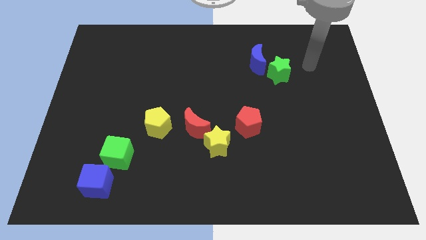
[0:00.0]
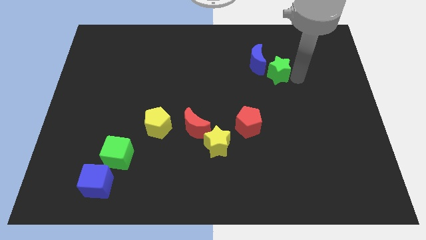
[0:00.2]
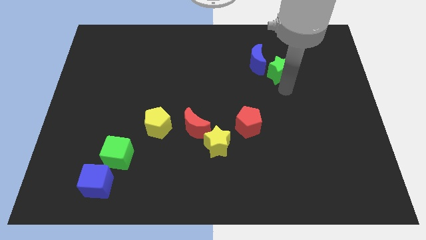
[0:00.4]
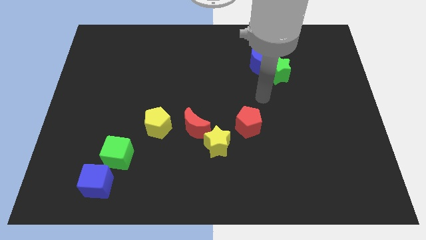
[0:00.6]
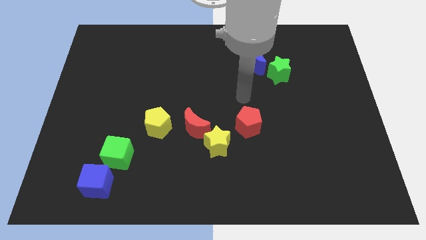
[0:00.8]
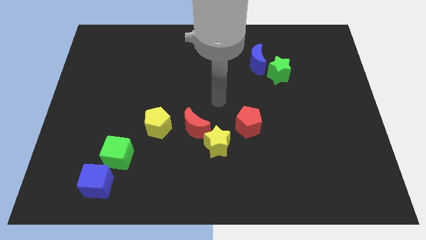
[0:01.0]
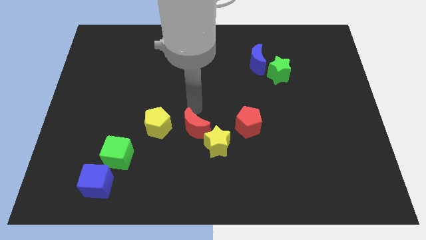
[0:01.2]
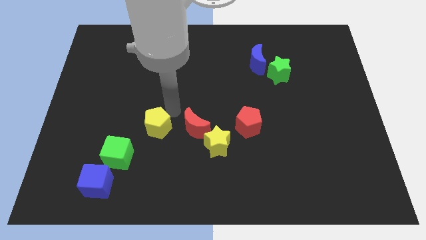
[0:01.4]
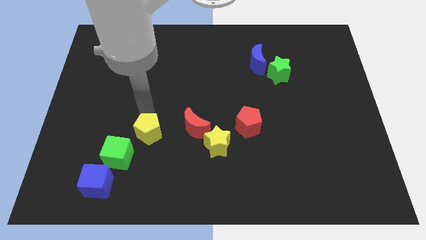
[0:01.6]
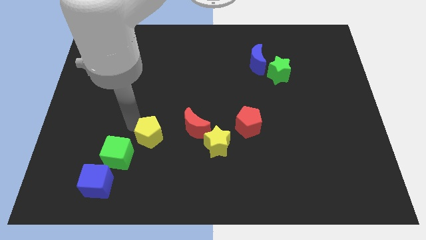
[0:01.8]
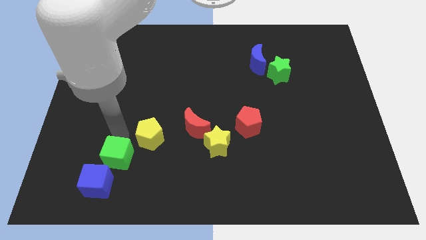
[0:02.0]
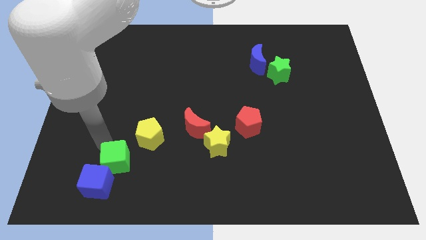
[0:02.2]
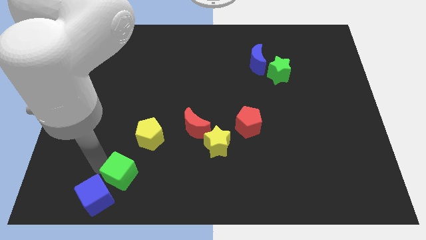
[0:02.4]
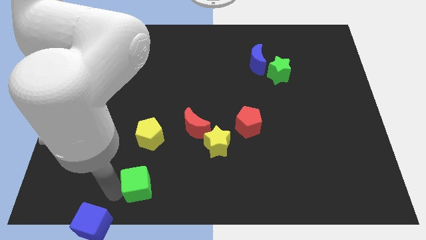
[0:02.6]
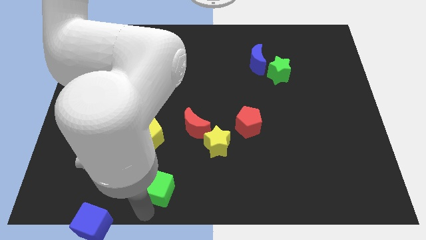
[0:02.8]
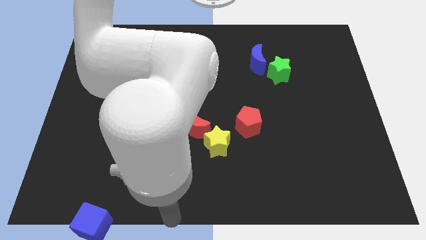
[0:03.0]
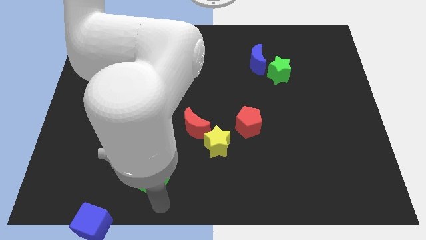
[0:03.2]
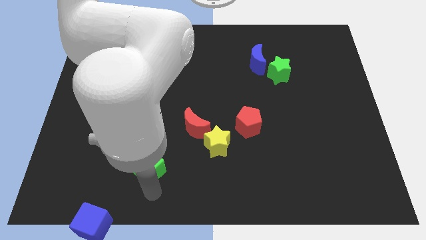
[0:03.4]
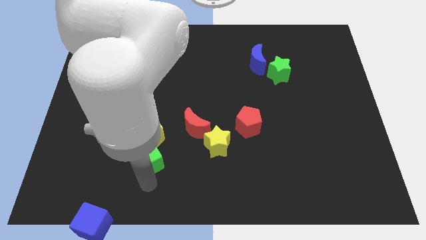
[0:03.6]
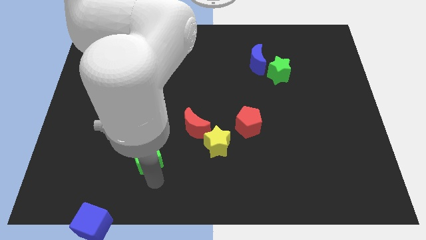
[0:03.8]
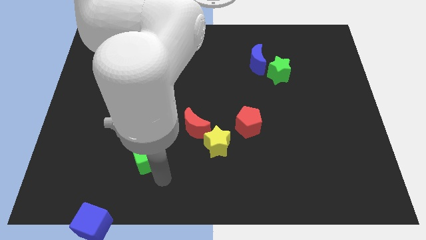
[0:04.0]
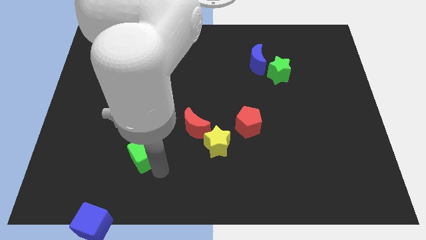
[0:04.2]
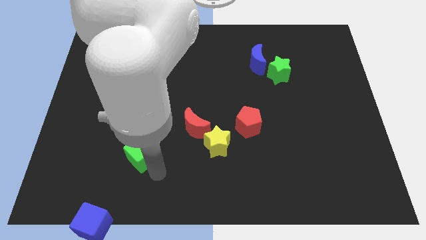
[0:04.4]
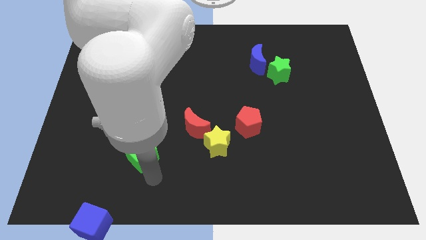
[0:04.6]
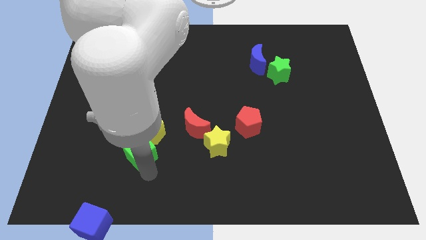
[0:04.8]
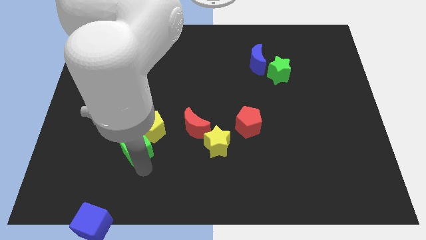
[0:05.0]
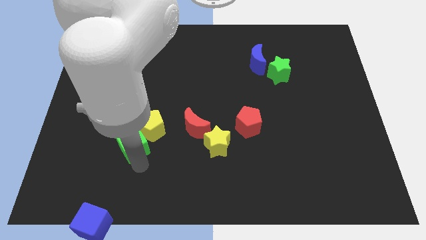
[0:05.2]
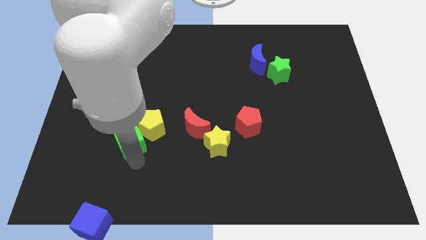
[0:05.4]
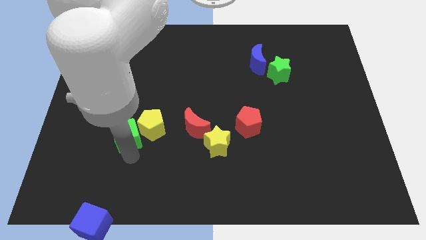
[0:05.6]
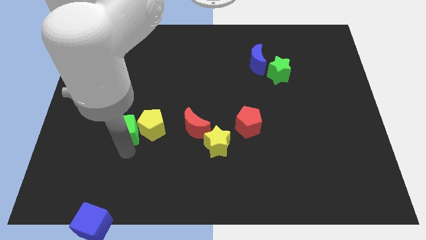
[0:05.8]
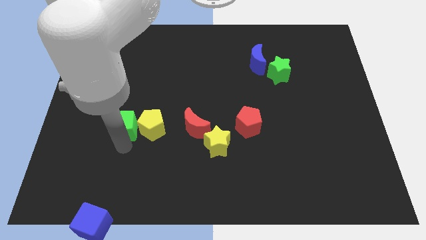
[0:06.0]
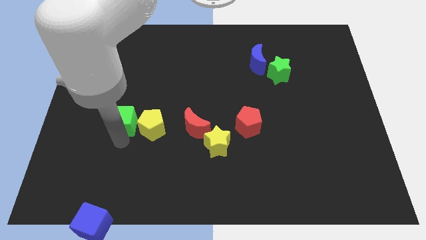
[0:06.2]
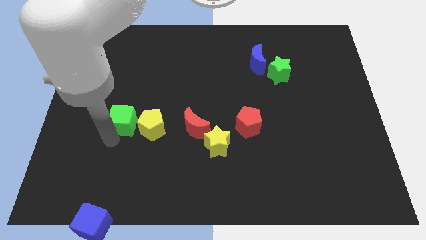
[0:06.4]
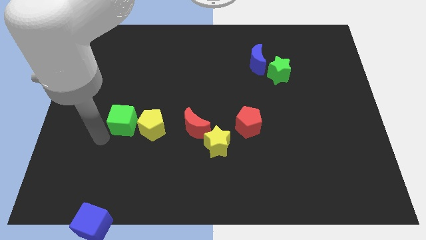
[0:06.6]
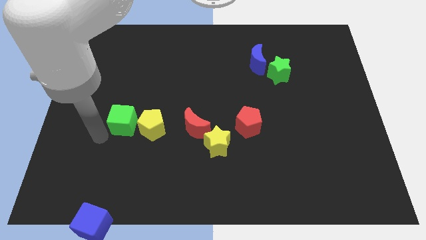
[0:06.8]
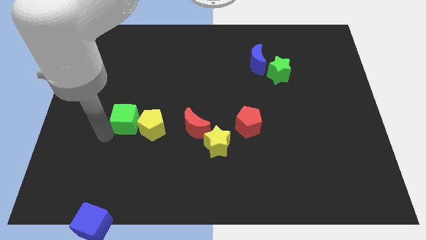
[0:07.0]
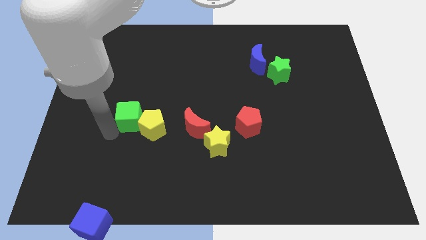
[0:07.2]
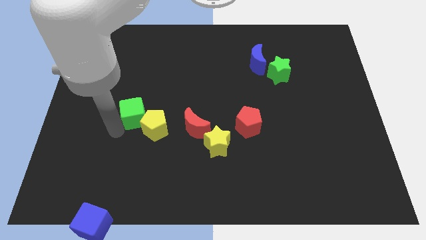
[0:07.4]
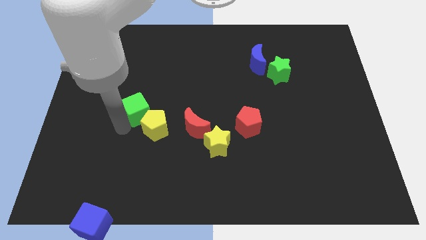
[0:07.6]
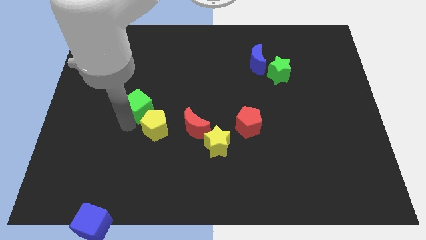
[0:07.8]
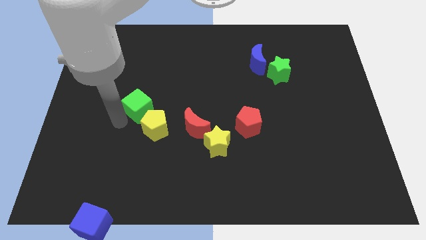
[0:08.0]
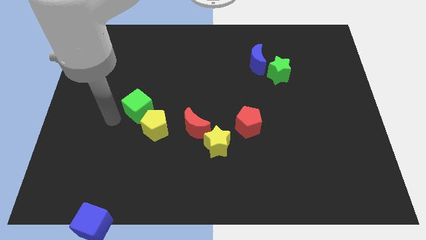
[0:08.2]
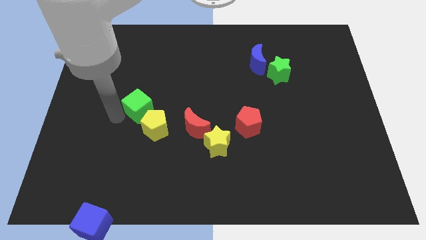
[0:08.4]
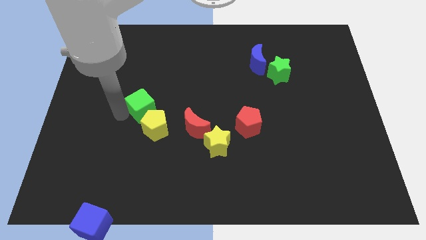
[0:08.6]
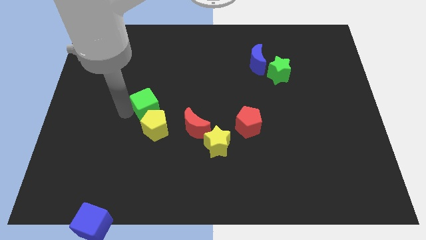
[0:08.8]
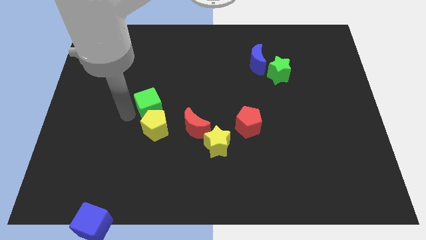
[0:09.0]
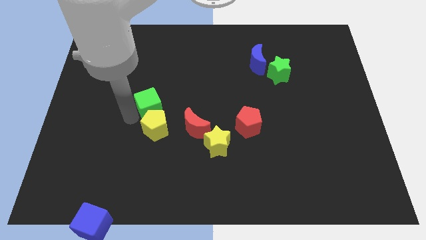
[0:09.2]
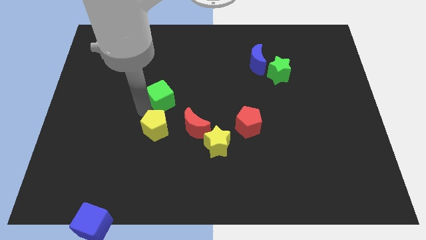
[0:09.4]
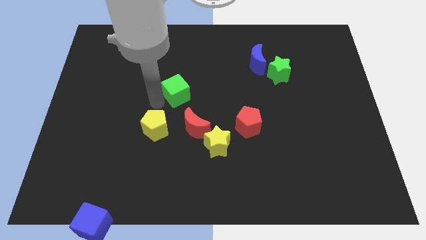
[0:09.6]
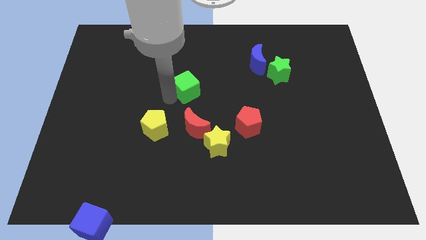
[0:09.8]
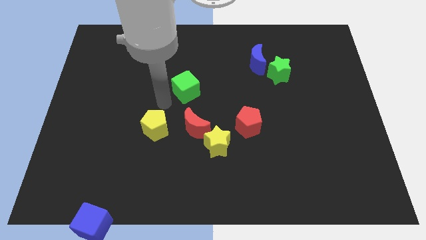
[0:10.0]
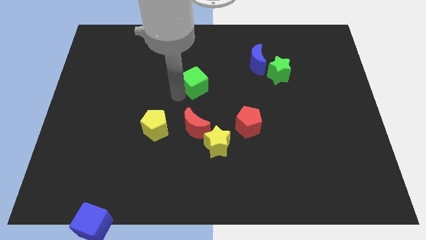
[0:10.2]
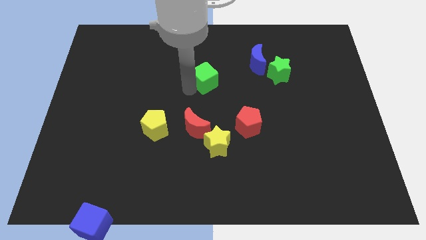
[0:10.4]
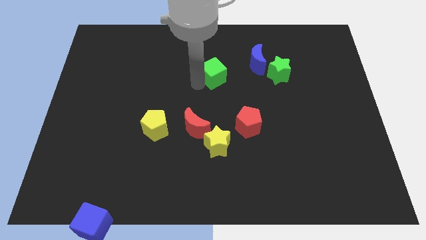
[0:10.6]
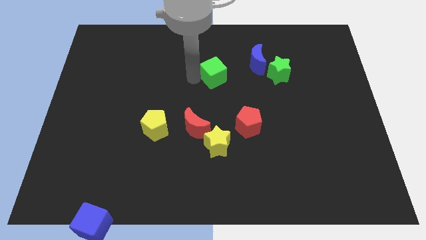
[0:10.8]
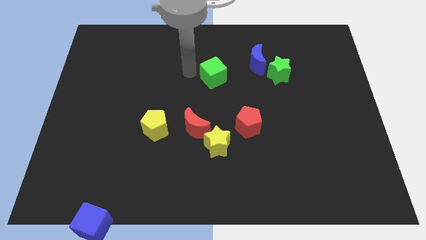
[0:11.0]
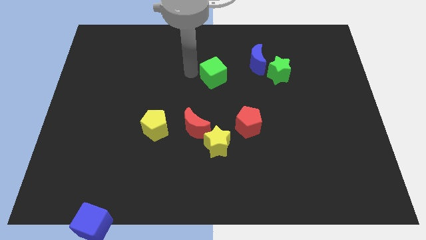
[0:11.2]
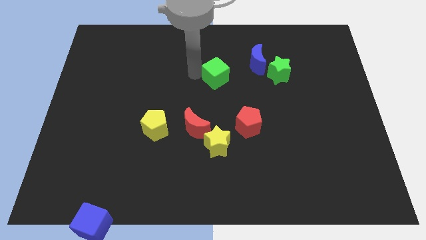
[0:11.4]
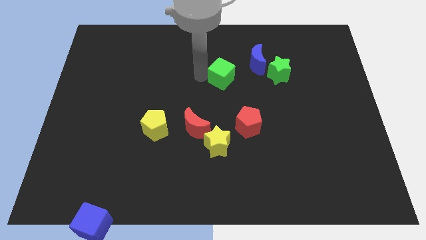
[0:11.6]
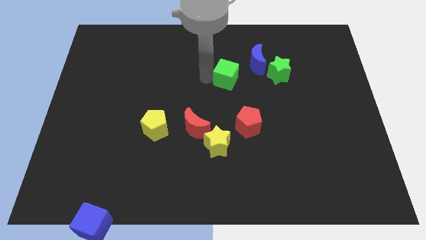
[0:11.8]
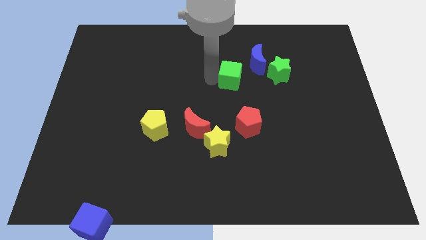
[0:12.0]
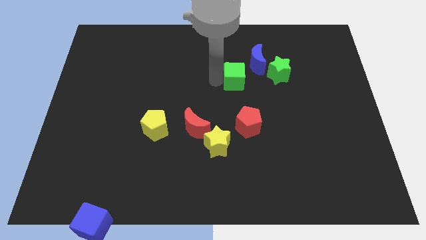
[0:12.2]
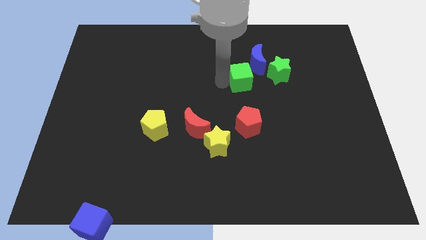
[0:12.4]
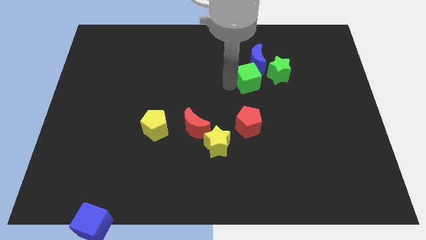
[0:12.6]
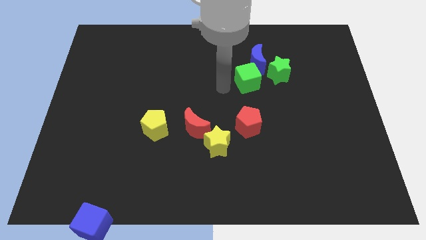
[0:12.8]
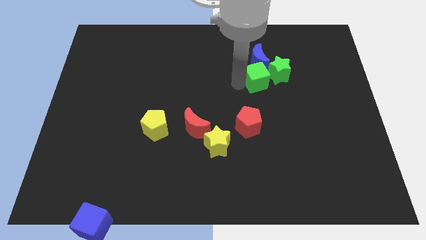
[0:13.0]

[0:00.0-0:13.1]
slide the green cube next to the green star

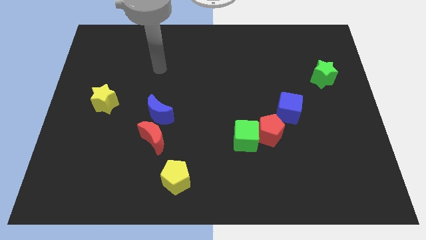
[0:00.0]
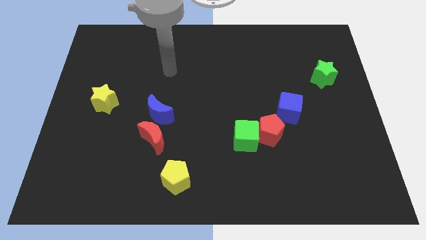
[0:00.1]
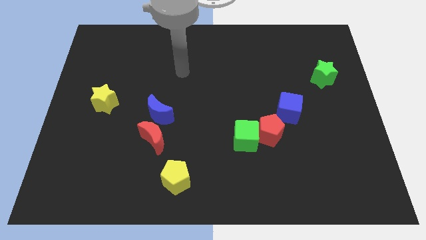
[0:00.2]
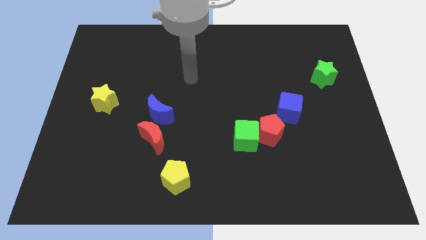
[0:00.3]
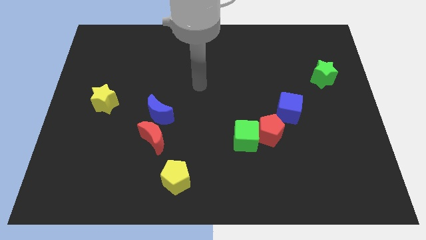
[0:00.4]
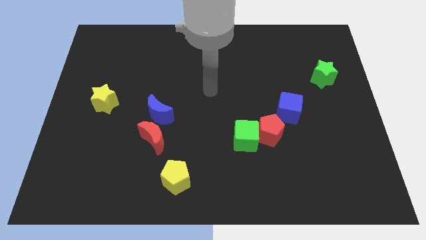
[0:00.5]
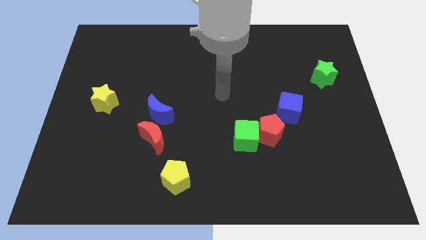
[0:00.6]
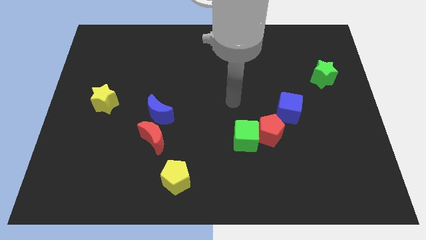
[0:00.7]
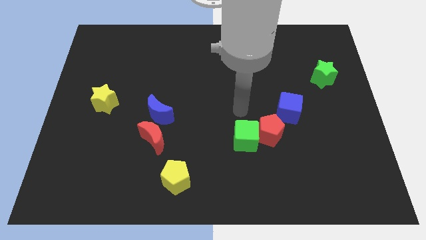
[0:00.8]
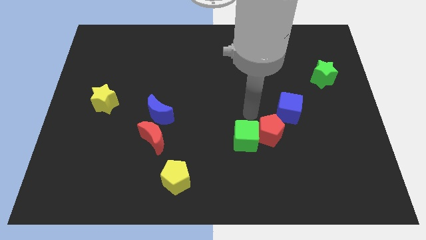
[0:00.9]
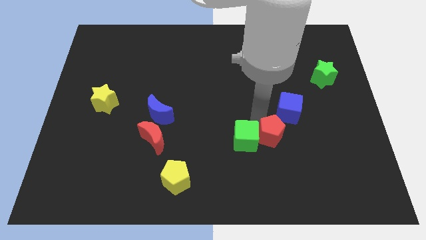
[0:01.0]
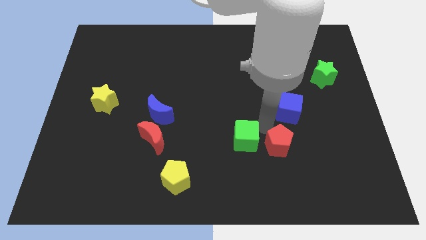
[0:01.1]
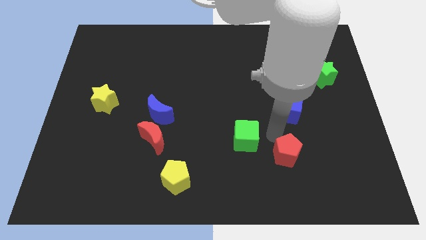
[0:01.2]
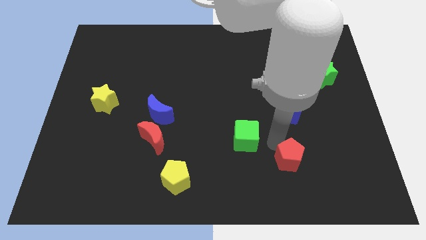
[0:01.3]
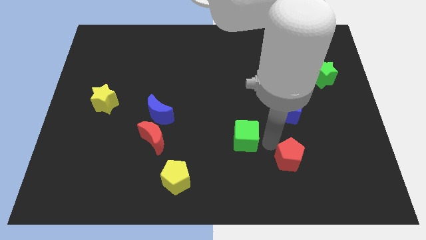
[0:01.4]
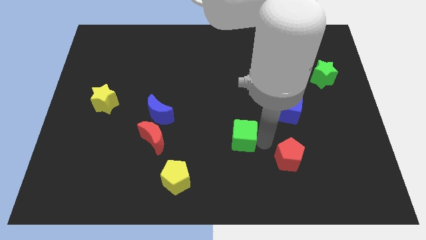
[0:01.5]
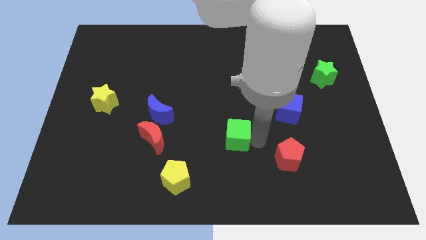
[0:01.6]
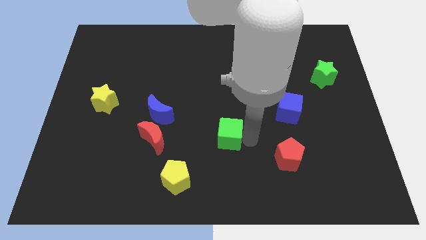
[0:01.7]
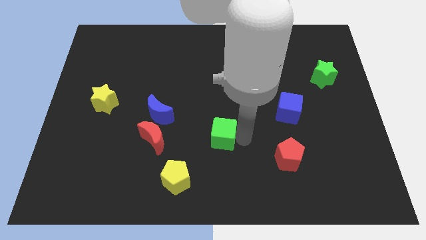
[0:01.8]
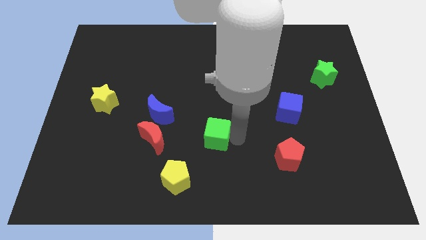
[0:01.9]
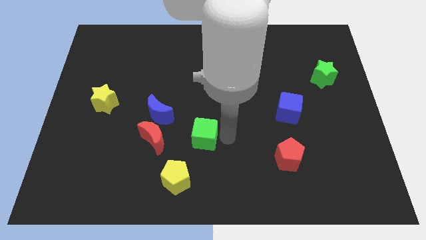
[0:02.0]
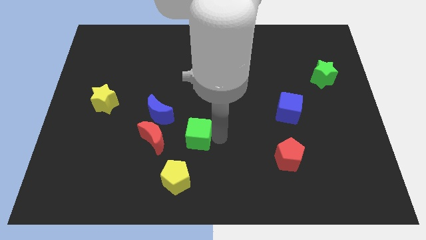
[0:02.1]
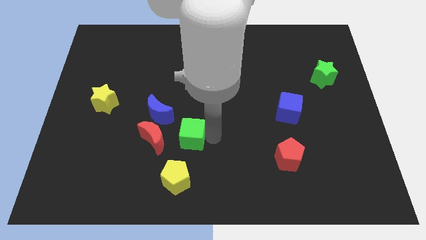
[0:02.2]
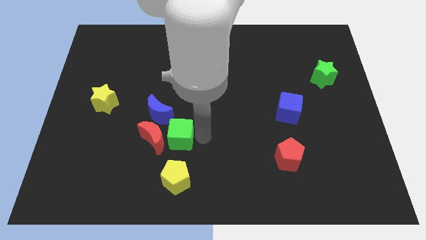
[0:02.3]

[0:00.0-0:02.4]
move the green cube next to the red moon
